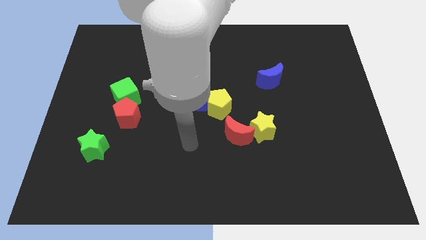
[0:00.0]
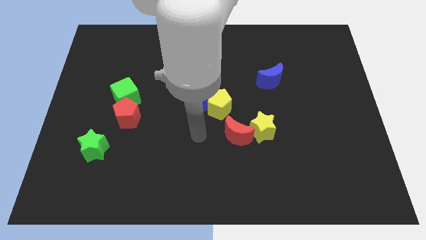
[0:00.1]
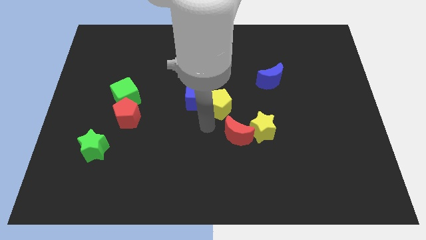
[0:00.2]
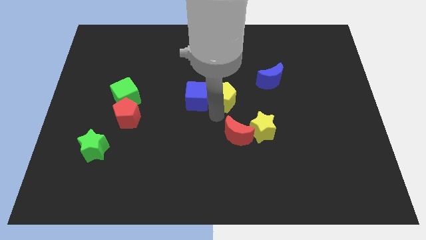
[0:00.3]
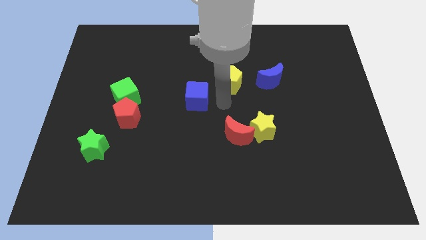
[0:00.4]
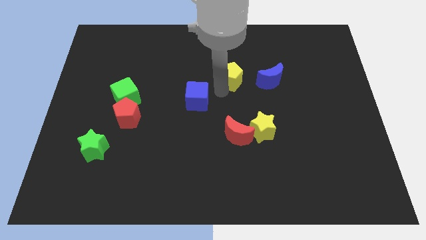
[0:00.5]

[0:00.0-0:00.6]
move the blue cube away from the yellow pentagon

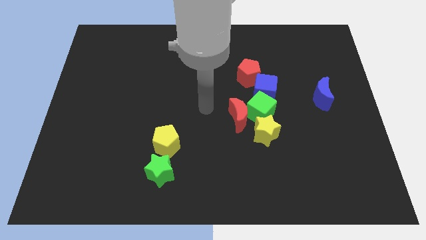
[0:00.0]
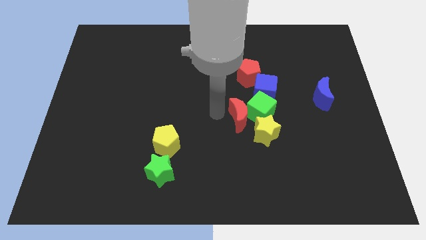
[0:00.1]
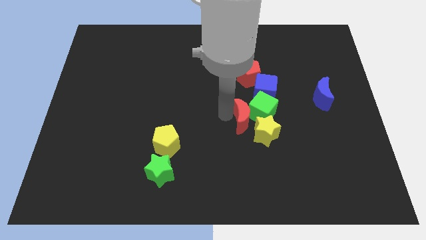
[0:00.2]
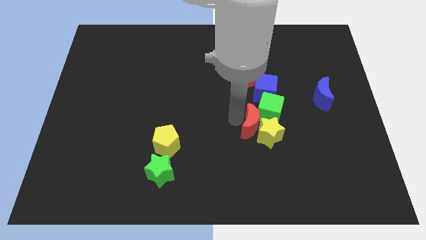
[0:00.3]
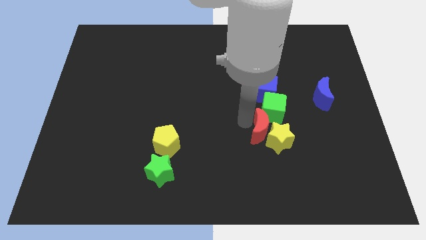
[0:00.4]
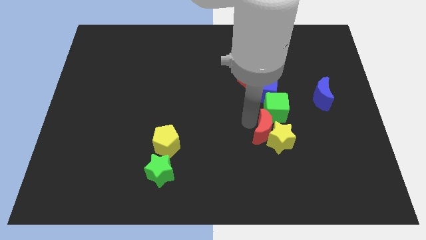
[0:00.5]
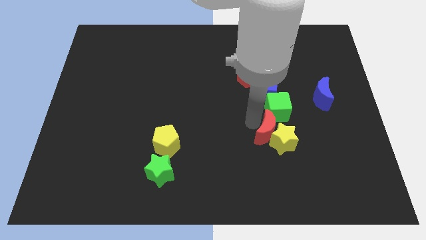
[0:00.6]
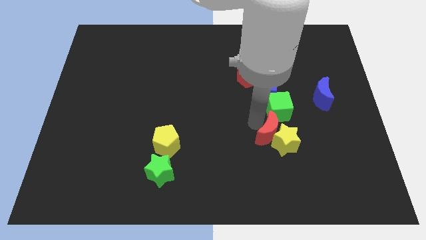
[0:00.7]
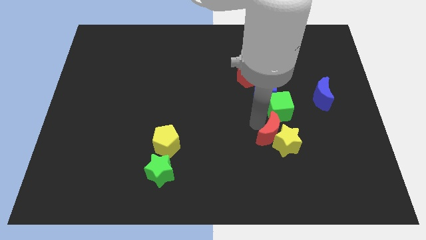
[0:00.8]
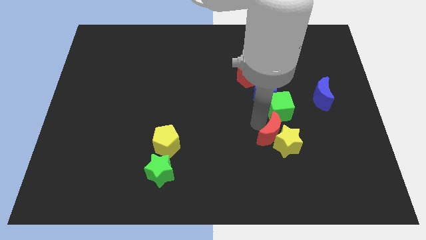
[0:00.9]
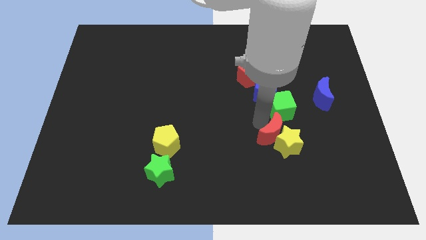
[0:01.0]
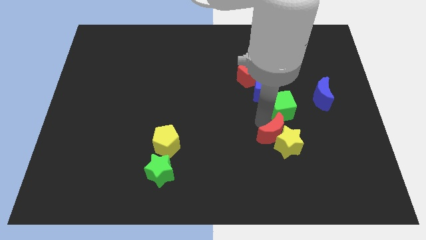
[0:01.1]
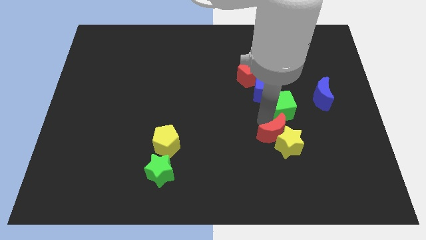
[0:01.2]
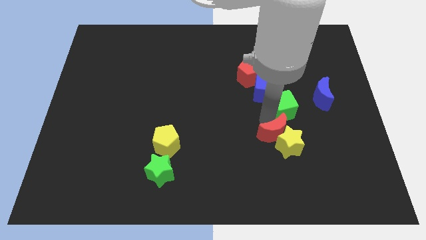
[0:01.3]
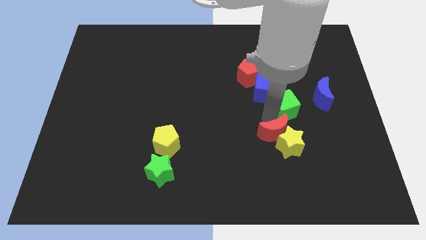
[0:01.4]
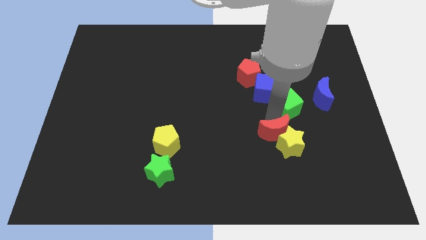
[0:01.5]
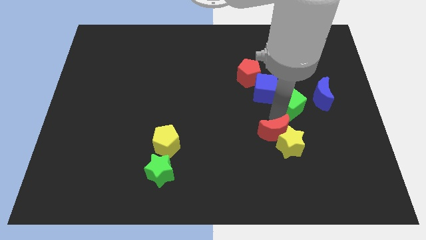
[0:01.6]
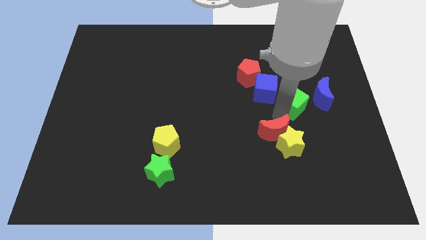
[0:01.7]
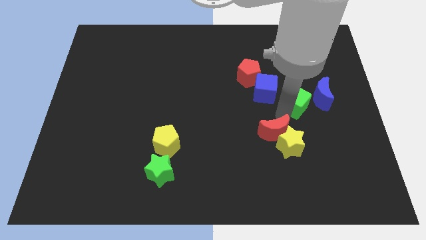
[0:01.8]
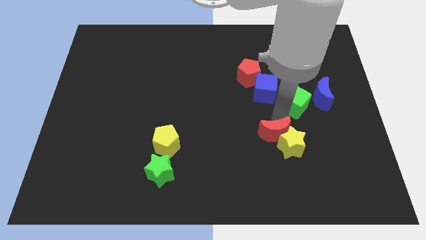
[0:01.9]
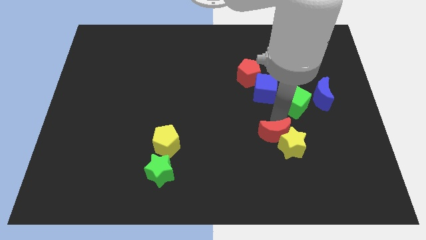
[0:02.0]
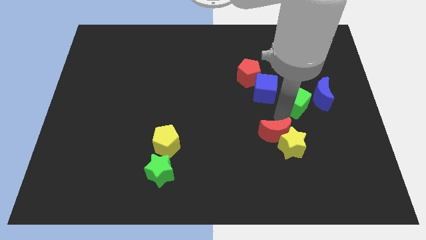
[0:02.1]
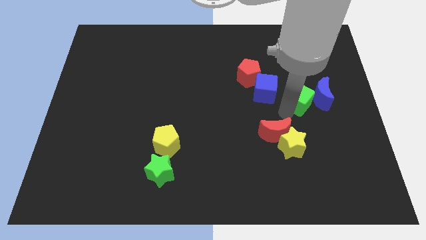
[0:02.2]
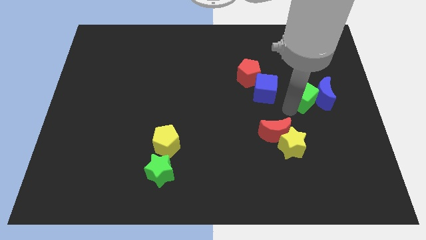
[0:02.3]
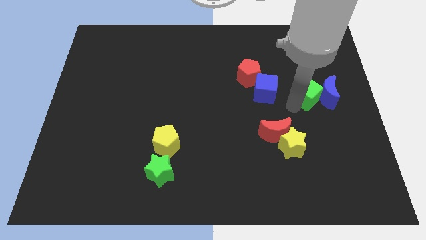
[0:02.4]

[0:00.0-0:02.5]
separate the green cube from the red moon, yellow star, and blue cube

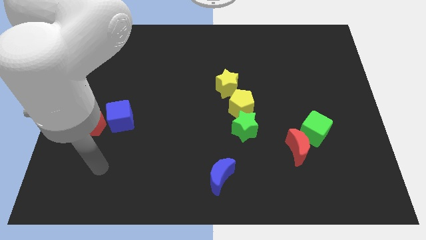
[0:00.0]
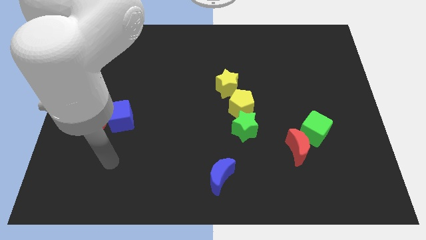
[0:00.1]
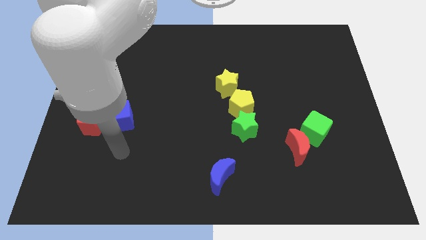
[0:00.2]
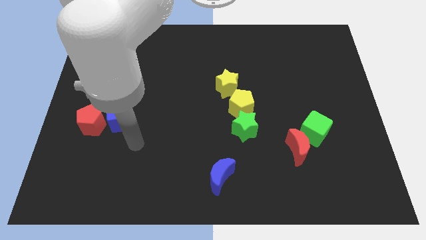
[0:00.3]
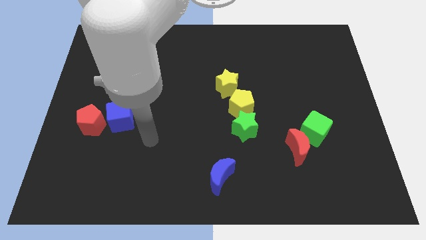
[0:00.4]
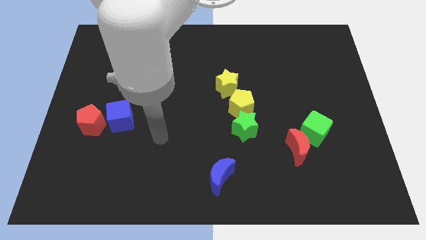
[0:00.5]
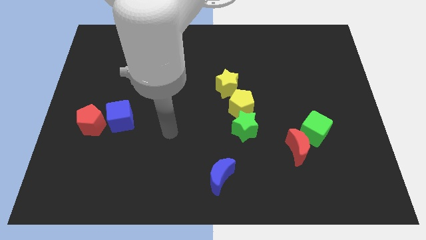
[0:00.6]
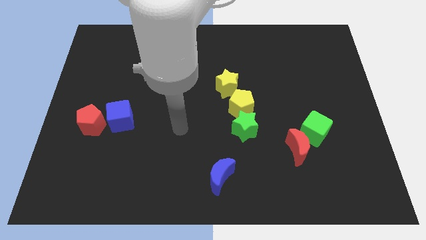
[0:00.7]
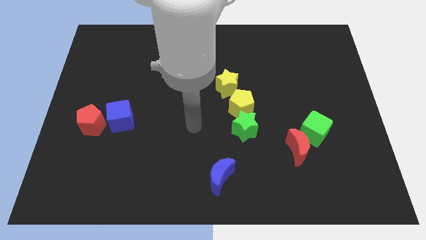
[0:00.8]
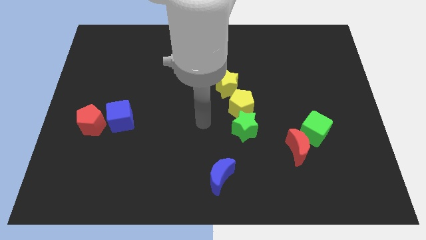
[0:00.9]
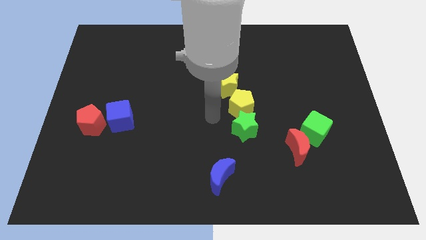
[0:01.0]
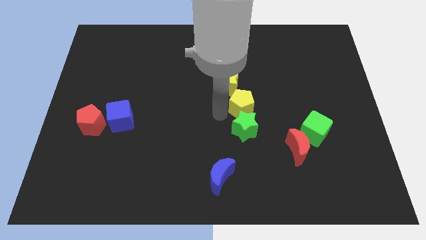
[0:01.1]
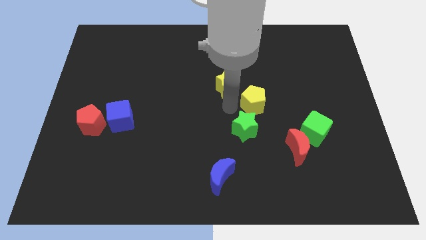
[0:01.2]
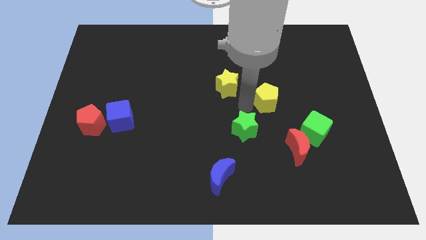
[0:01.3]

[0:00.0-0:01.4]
move the green star away from the yellow pentagon

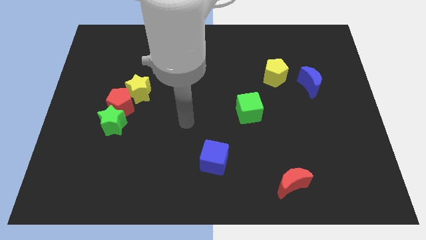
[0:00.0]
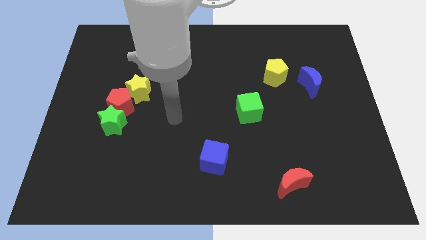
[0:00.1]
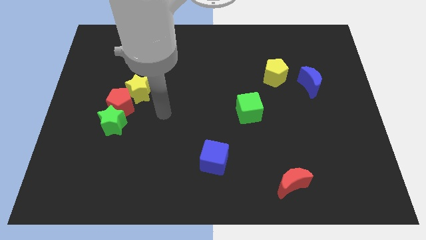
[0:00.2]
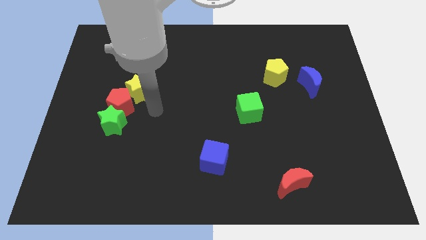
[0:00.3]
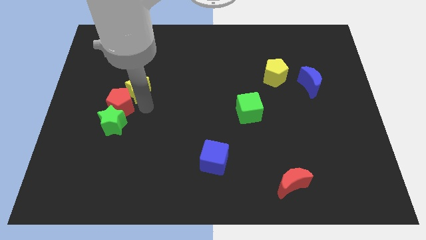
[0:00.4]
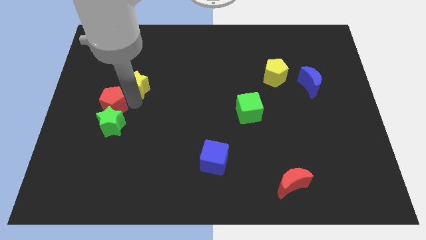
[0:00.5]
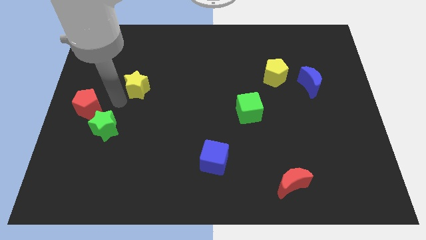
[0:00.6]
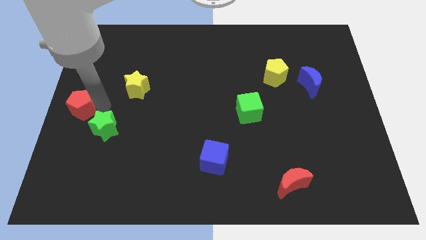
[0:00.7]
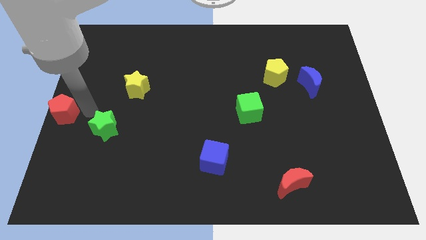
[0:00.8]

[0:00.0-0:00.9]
pull the green star apart from the red pentagon

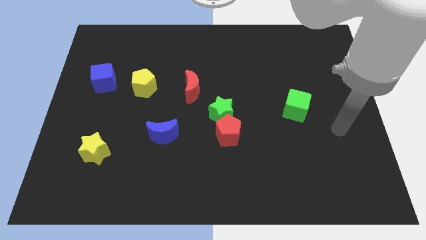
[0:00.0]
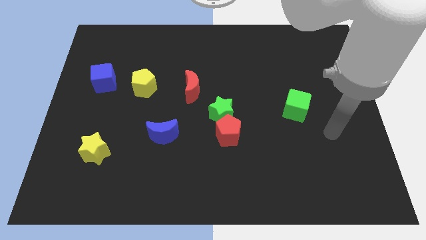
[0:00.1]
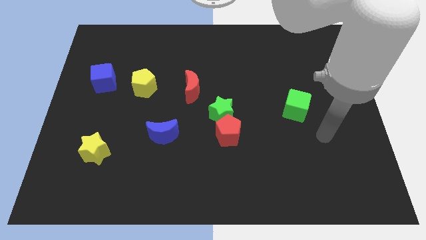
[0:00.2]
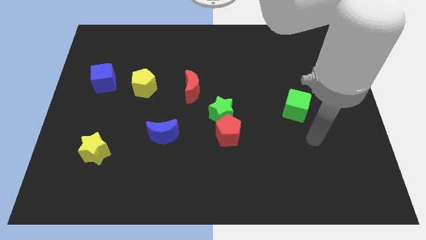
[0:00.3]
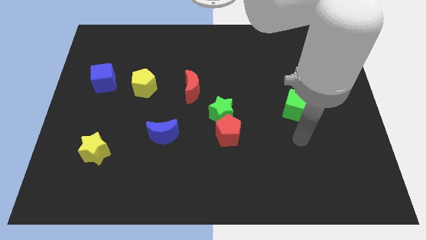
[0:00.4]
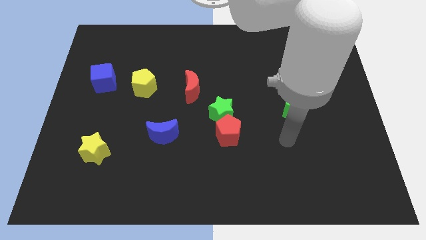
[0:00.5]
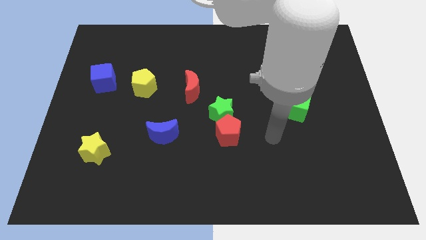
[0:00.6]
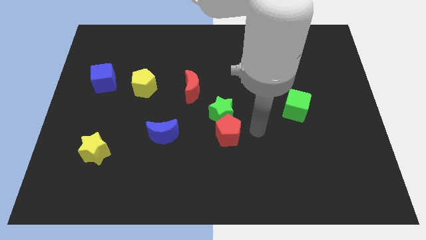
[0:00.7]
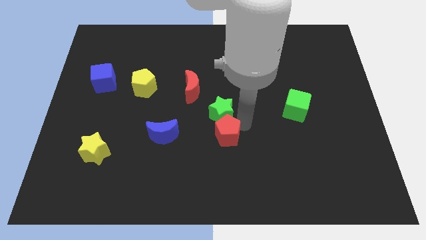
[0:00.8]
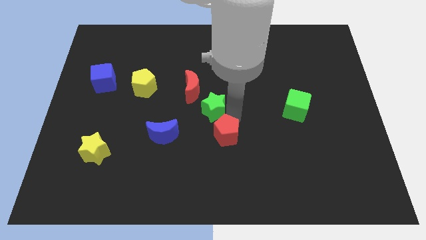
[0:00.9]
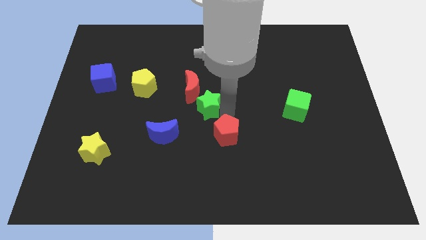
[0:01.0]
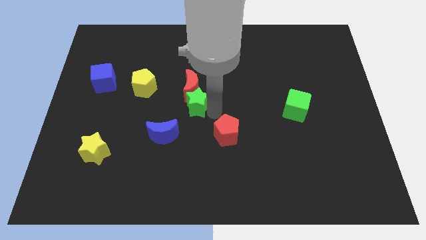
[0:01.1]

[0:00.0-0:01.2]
pull the red pentagon apart from the green star

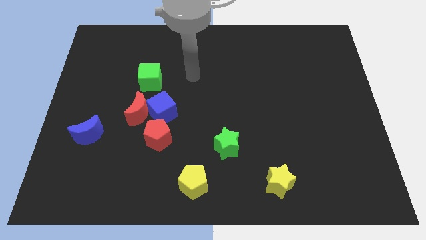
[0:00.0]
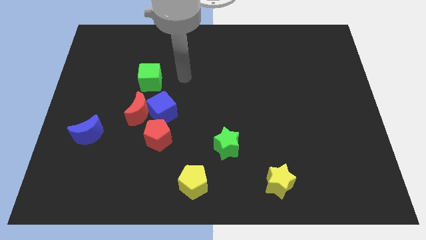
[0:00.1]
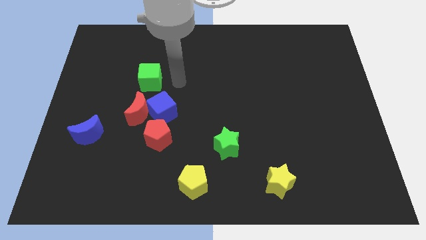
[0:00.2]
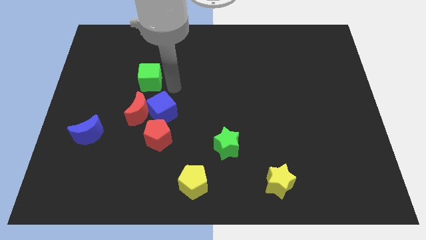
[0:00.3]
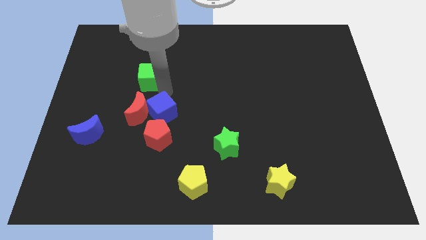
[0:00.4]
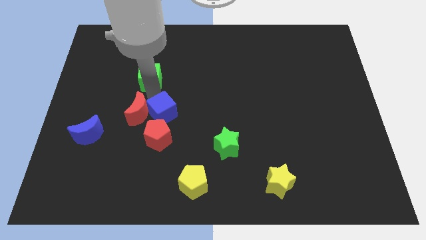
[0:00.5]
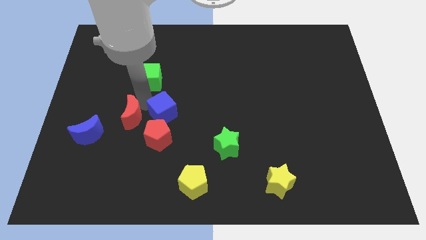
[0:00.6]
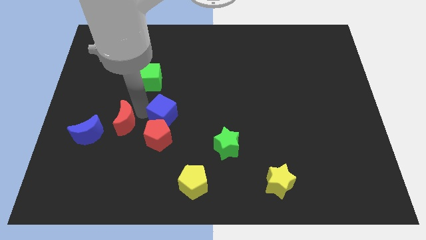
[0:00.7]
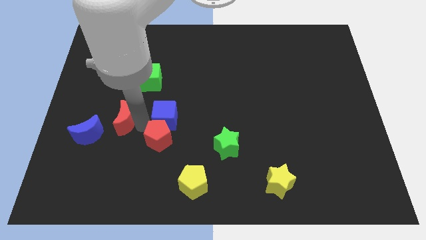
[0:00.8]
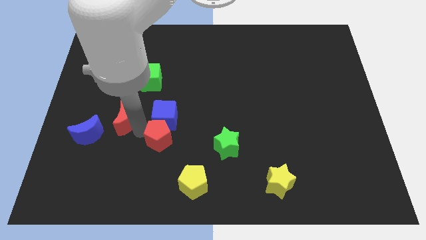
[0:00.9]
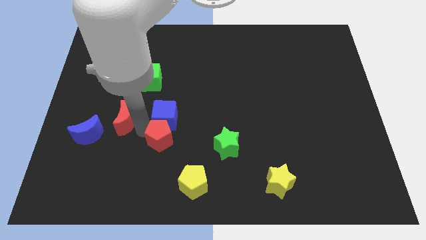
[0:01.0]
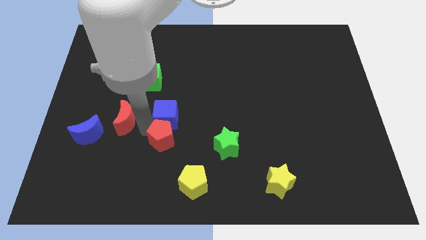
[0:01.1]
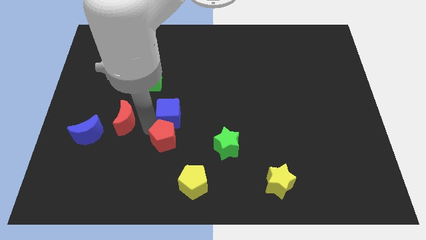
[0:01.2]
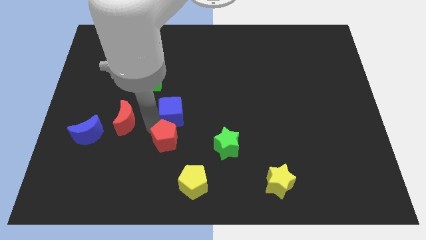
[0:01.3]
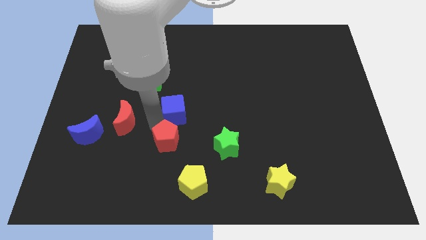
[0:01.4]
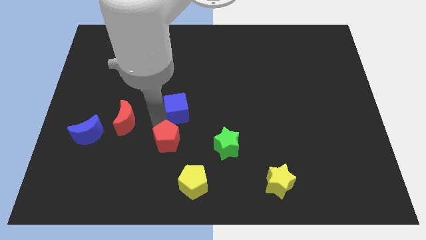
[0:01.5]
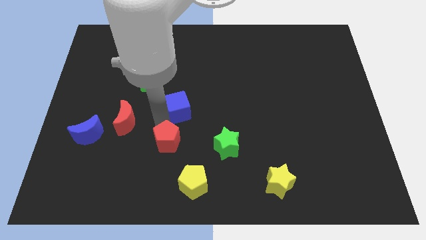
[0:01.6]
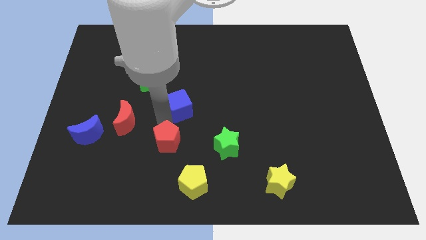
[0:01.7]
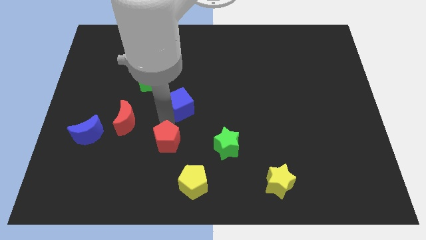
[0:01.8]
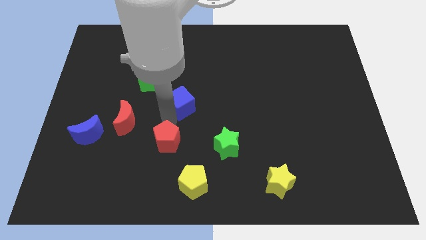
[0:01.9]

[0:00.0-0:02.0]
move the blue cube away from the red moon and red pentagon

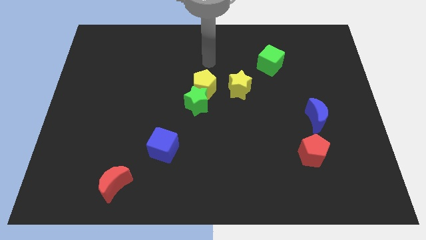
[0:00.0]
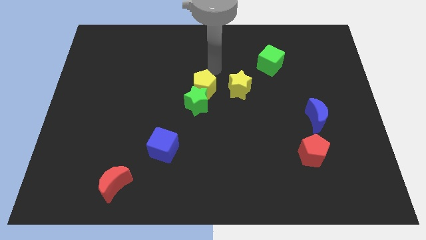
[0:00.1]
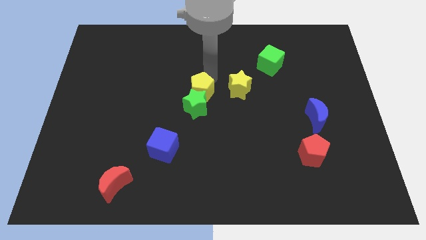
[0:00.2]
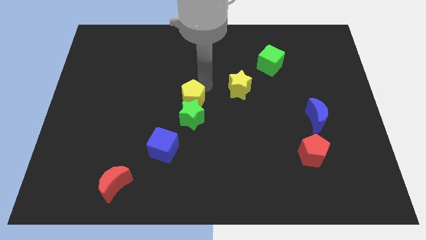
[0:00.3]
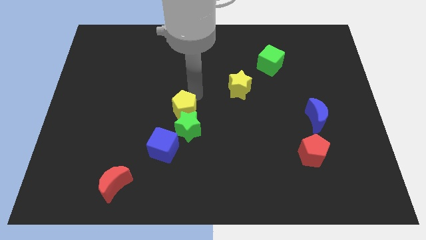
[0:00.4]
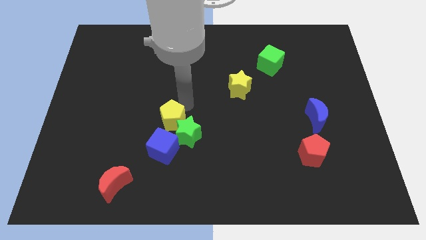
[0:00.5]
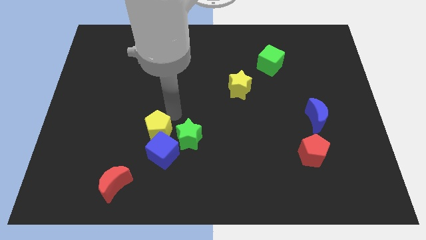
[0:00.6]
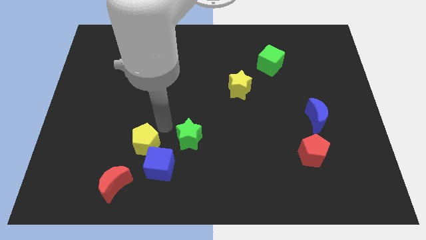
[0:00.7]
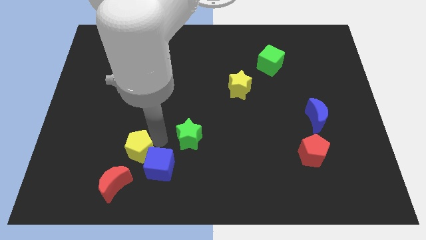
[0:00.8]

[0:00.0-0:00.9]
separate the green star from the yellow pentagon
